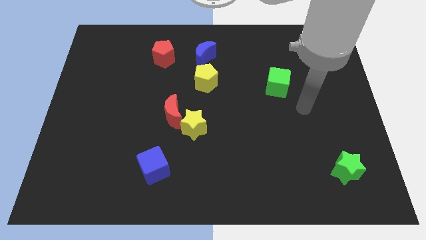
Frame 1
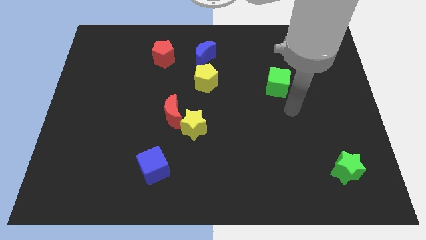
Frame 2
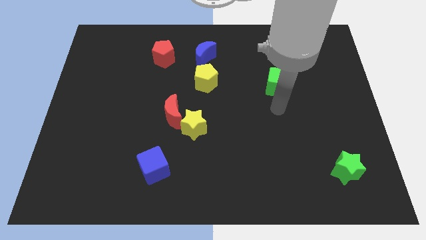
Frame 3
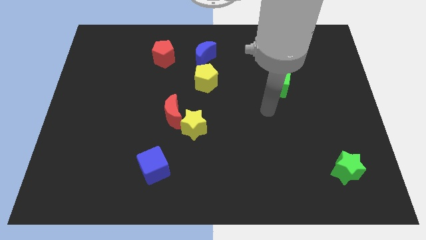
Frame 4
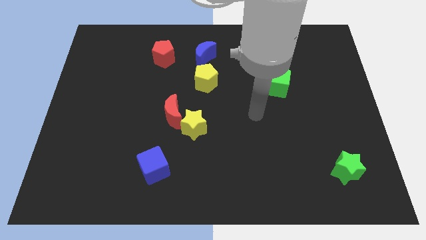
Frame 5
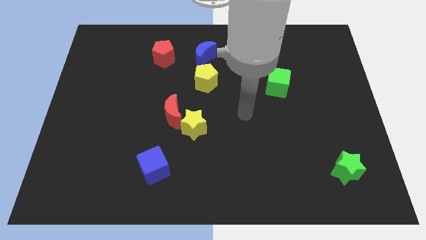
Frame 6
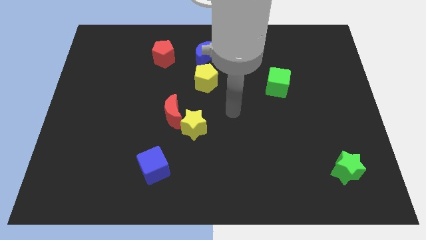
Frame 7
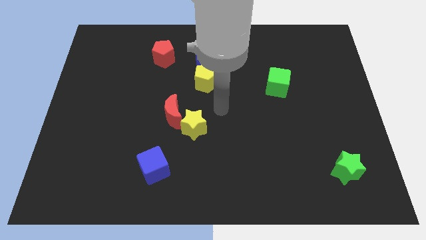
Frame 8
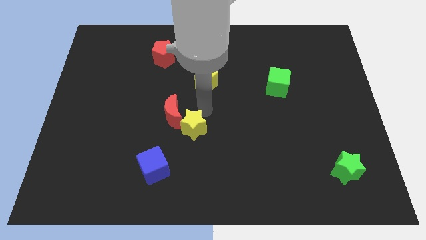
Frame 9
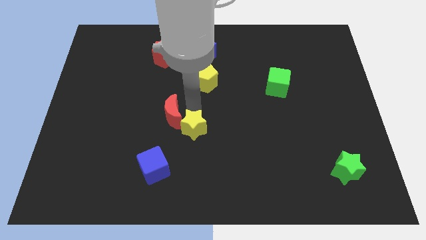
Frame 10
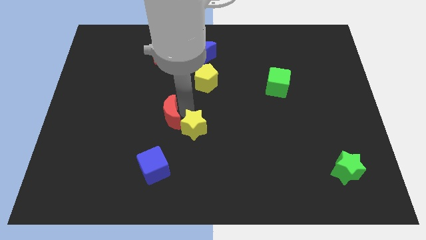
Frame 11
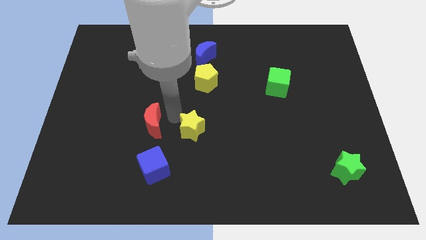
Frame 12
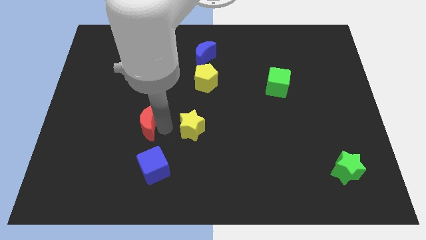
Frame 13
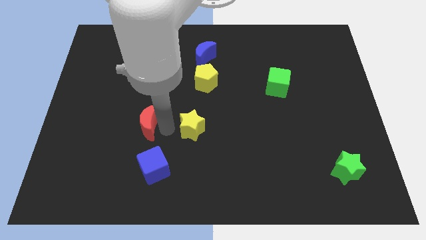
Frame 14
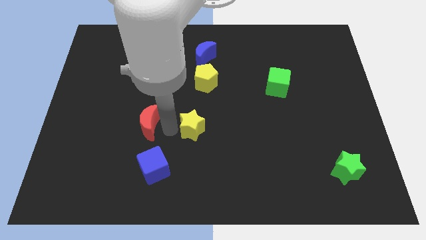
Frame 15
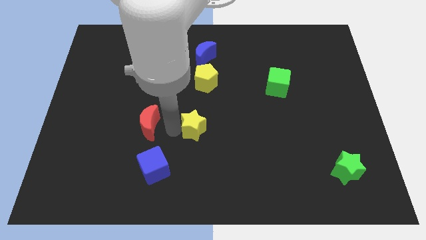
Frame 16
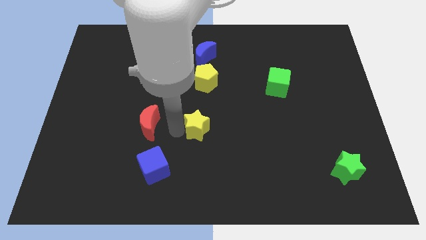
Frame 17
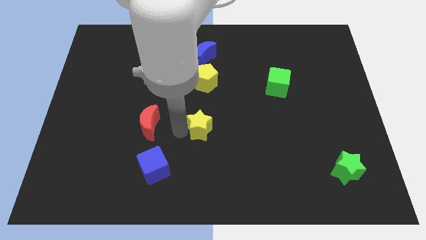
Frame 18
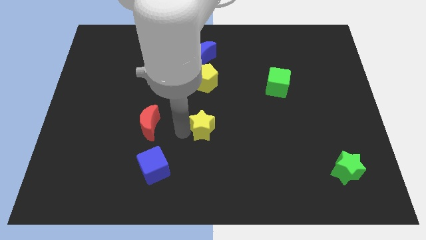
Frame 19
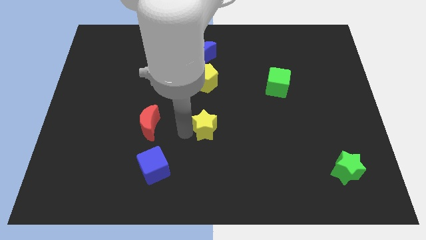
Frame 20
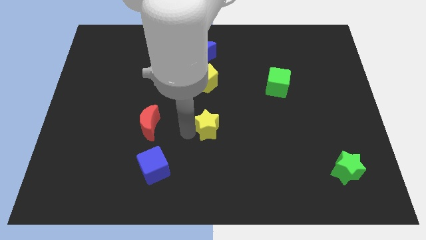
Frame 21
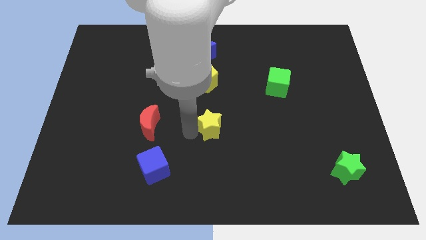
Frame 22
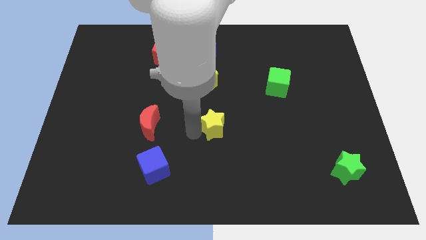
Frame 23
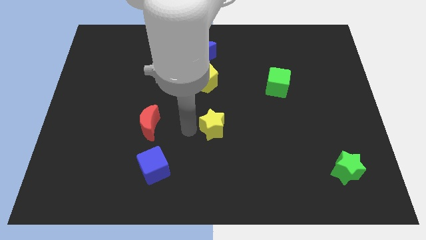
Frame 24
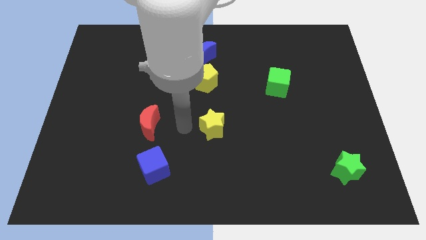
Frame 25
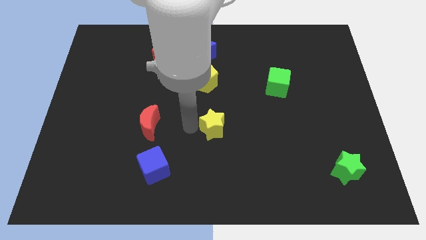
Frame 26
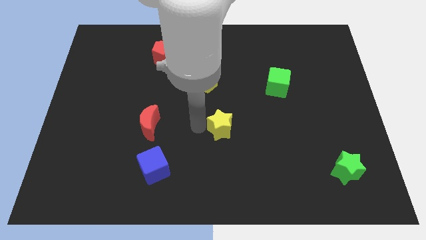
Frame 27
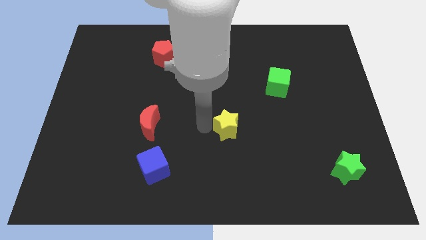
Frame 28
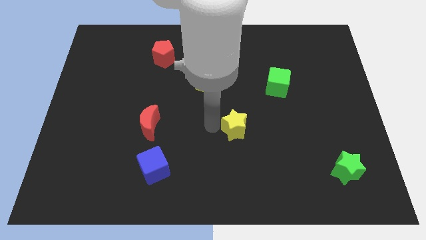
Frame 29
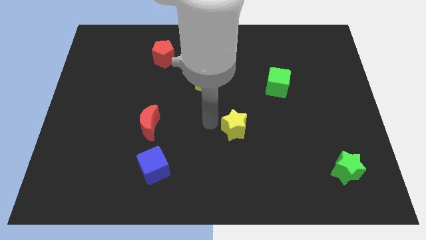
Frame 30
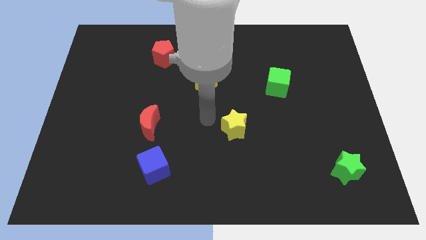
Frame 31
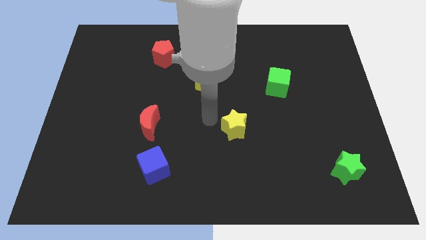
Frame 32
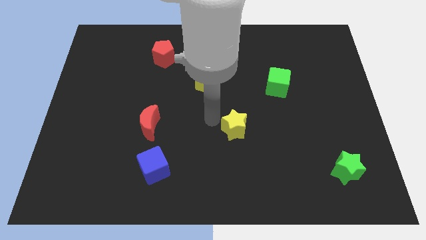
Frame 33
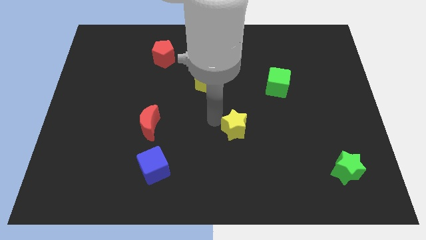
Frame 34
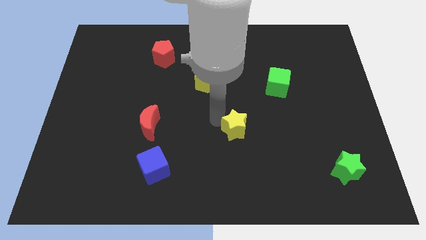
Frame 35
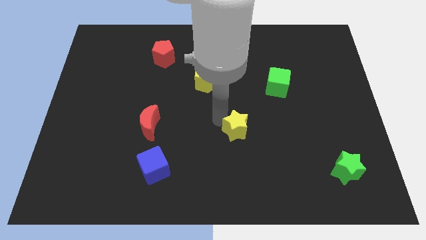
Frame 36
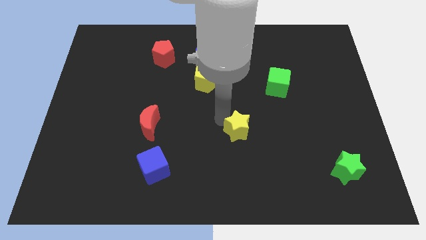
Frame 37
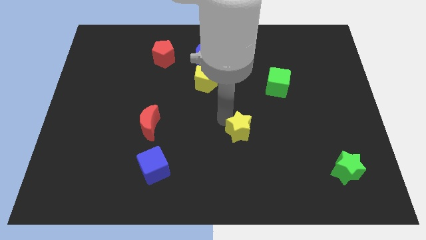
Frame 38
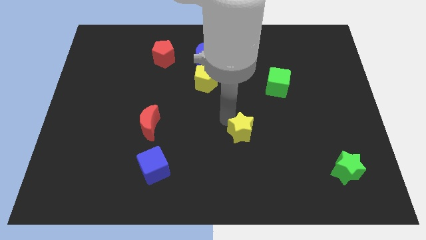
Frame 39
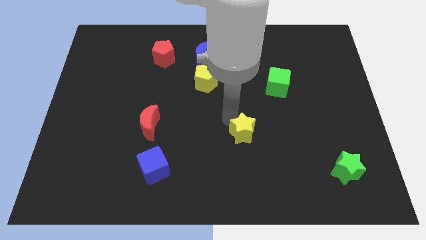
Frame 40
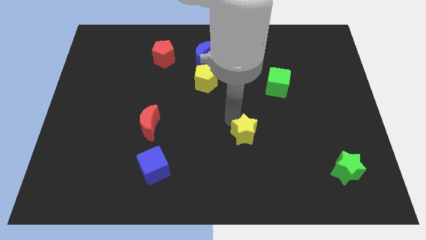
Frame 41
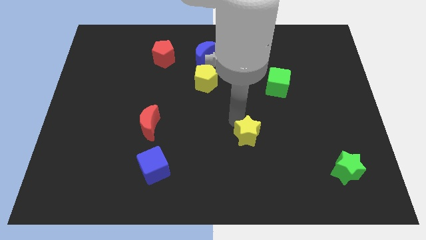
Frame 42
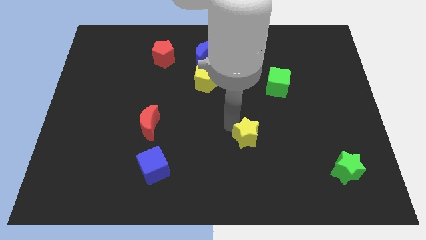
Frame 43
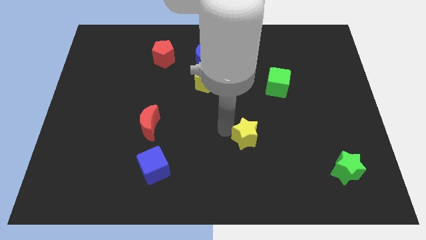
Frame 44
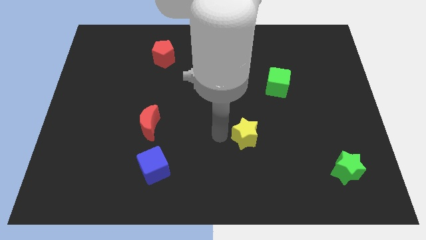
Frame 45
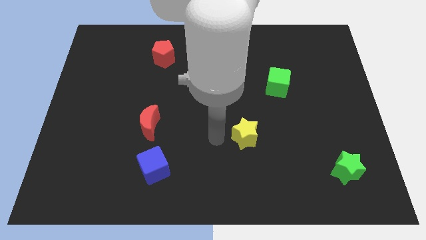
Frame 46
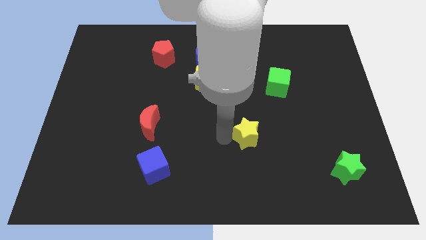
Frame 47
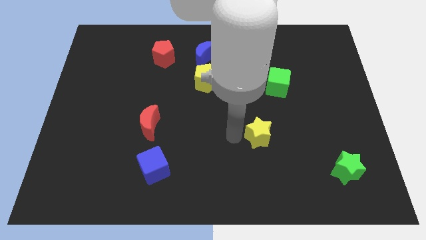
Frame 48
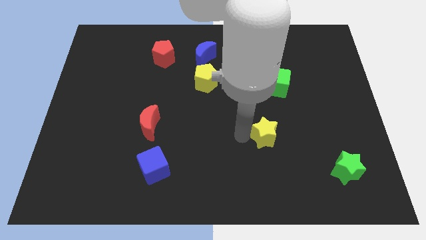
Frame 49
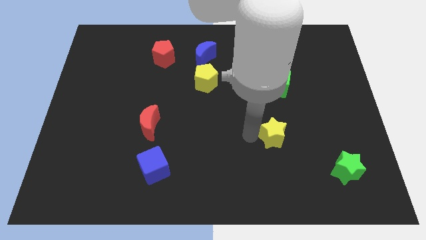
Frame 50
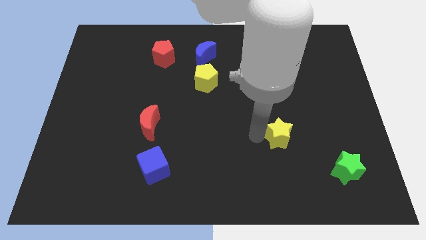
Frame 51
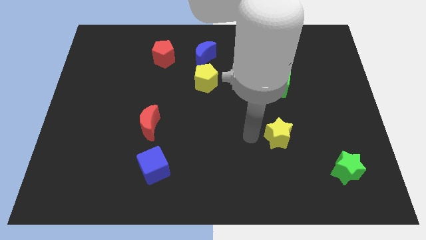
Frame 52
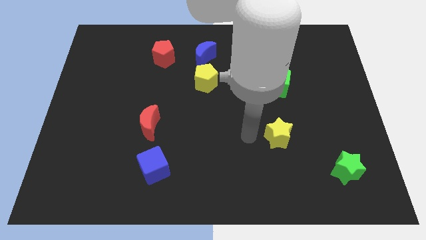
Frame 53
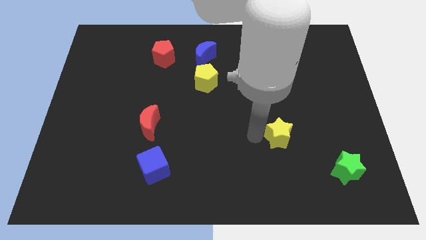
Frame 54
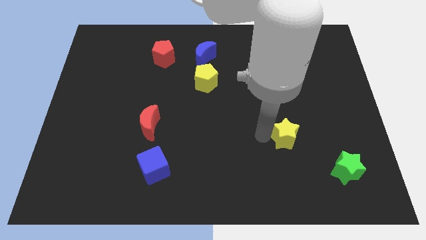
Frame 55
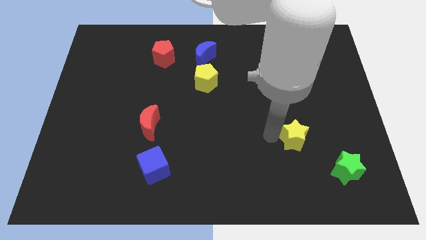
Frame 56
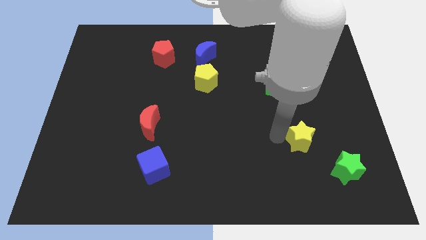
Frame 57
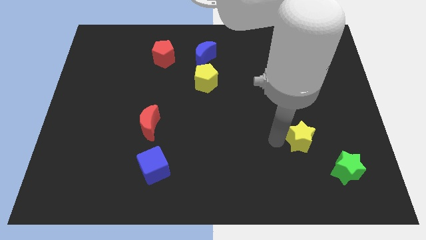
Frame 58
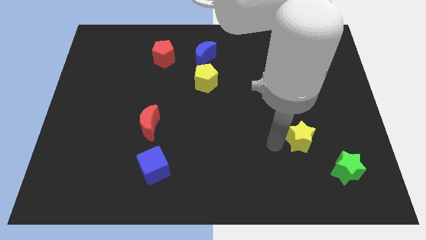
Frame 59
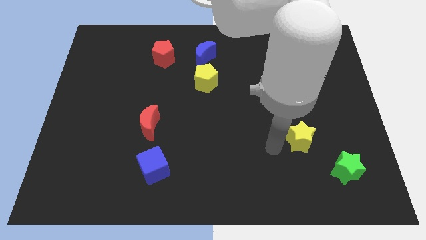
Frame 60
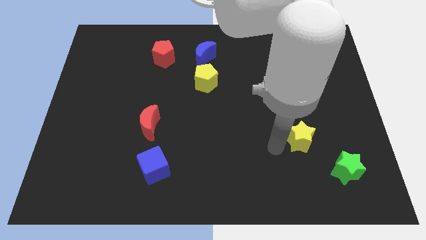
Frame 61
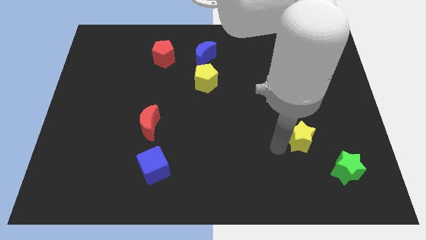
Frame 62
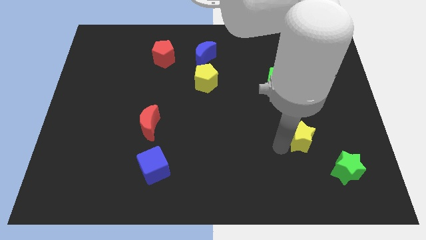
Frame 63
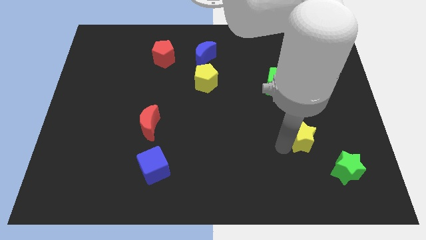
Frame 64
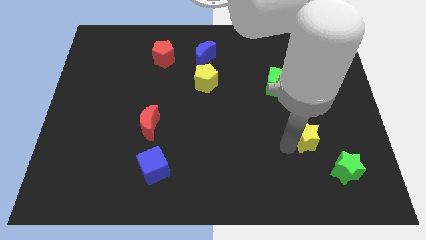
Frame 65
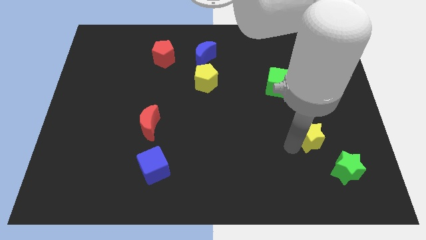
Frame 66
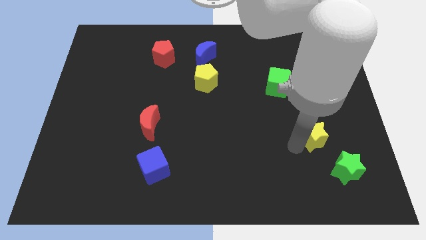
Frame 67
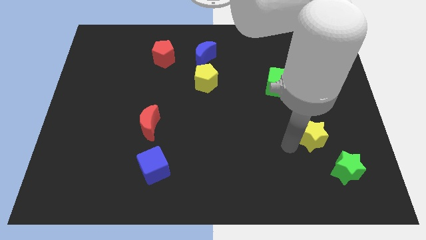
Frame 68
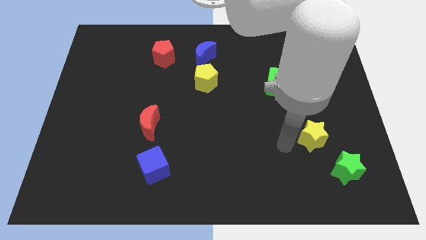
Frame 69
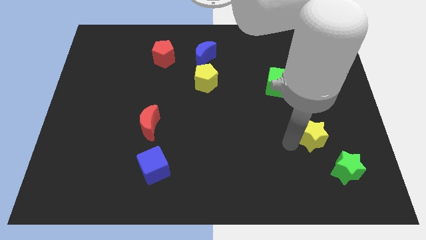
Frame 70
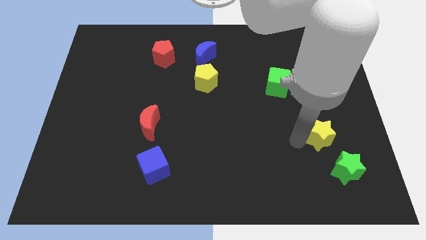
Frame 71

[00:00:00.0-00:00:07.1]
push the yellow star to the top side of the green star

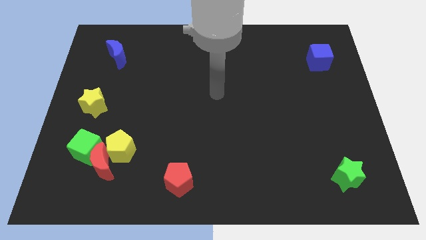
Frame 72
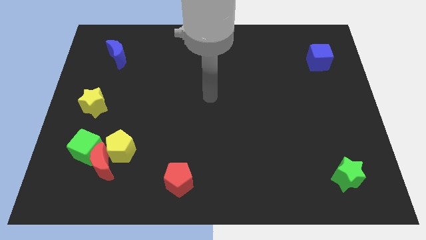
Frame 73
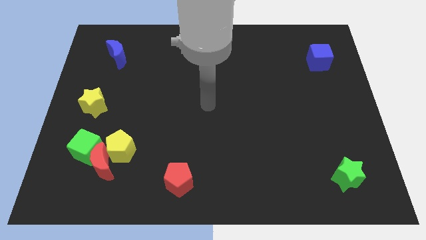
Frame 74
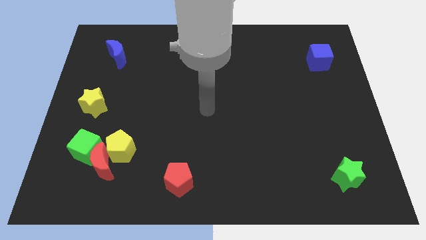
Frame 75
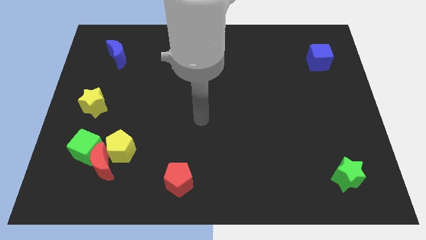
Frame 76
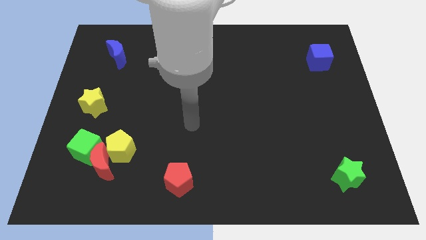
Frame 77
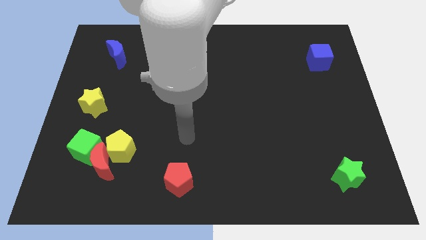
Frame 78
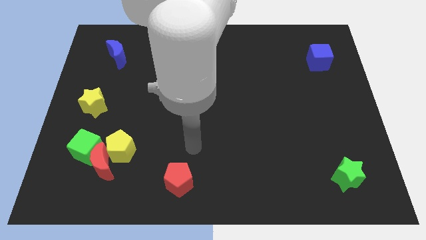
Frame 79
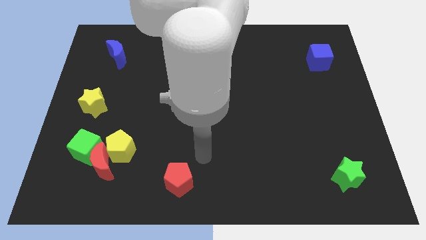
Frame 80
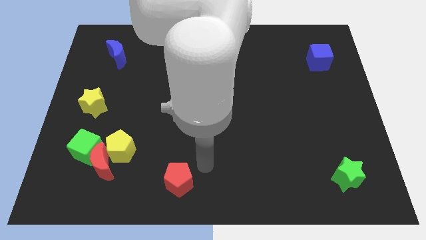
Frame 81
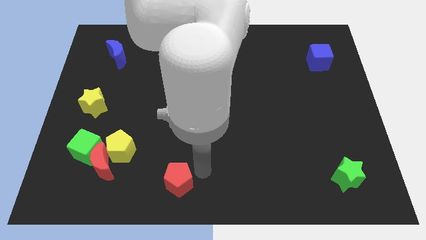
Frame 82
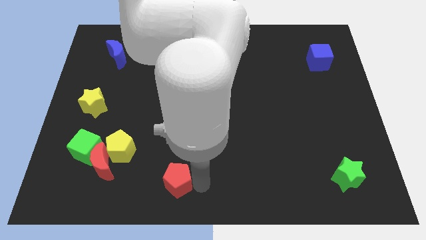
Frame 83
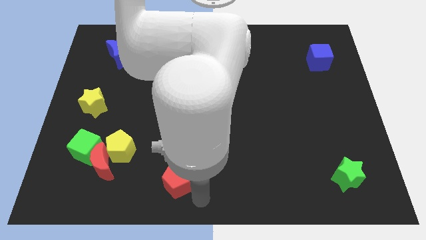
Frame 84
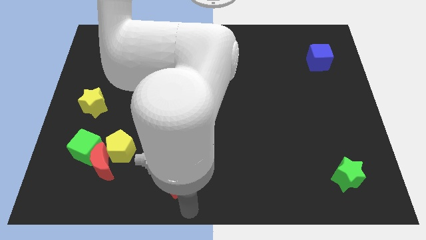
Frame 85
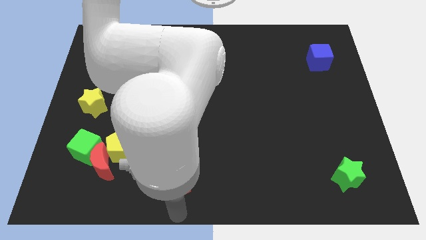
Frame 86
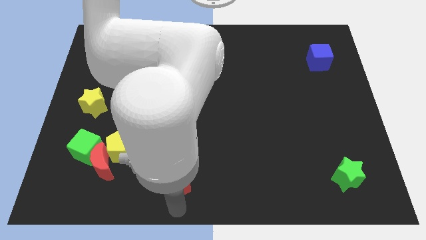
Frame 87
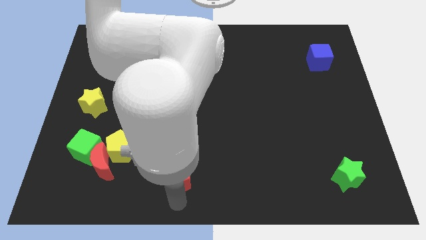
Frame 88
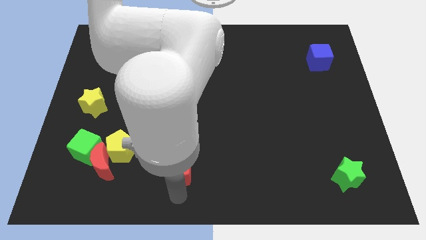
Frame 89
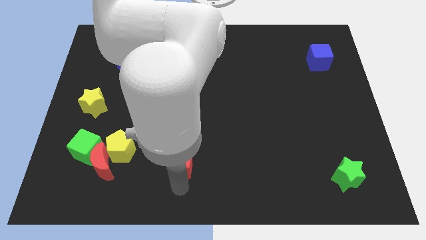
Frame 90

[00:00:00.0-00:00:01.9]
move the red pentagon right of the yellow pentagon
